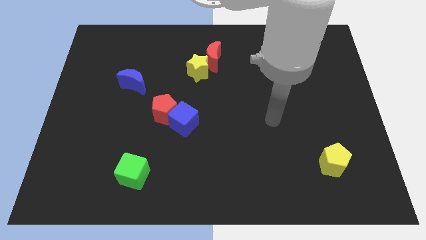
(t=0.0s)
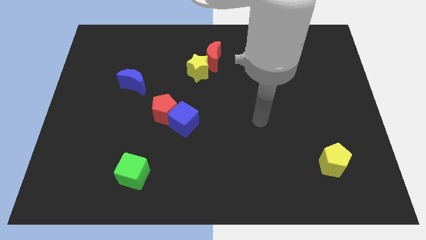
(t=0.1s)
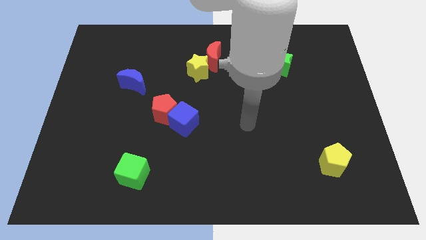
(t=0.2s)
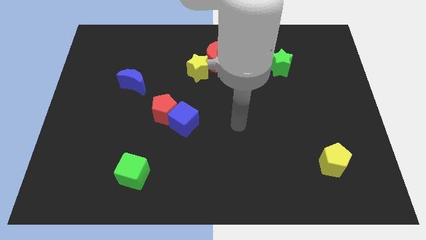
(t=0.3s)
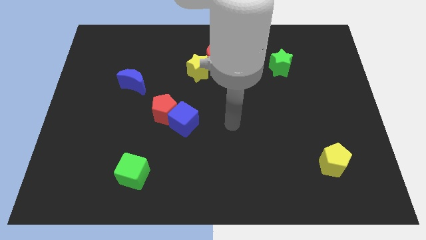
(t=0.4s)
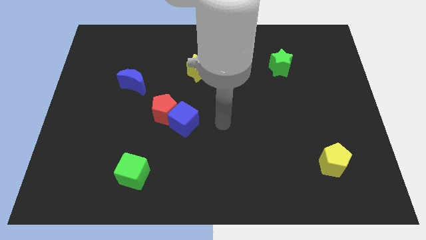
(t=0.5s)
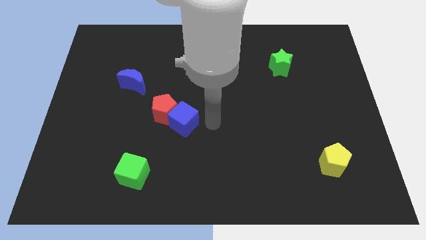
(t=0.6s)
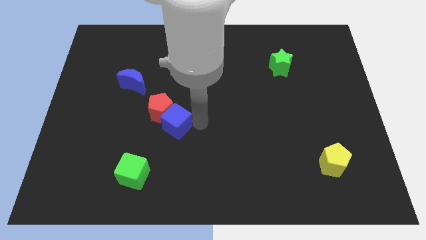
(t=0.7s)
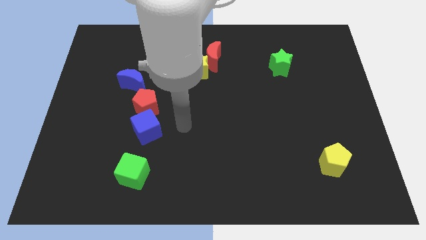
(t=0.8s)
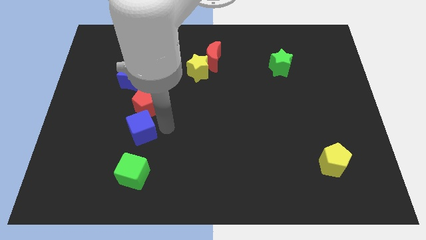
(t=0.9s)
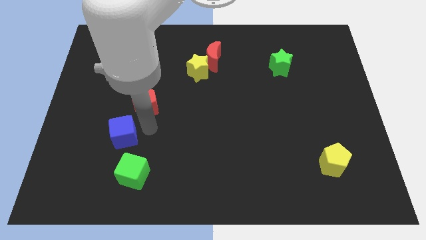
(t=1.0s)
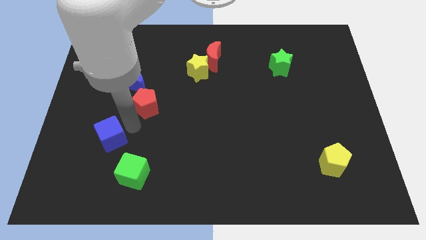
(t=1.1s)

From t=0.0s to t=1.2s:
move the red pentagon away from the blue cube

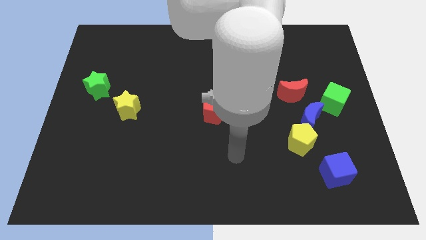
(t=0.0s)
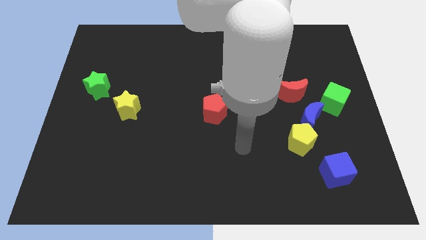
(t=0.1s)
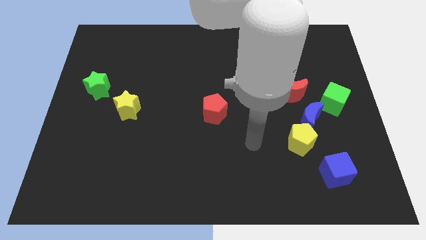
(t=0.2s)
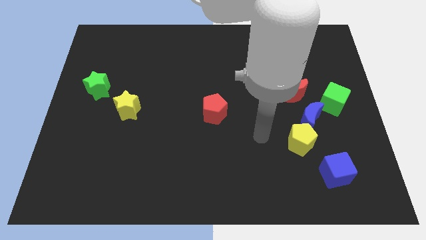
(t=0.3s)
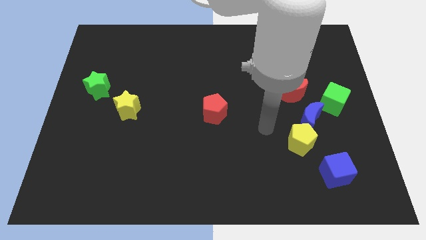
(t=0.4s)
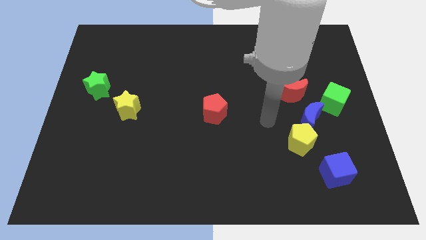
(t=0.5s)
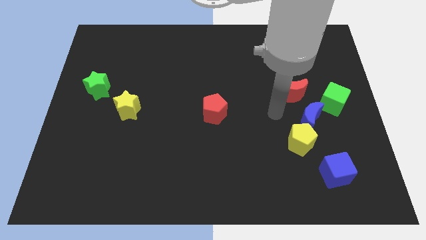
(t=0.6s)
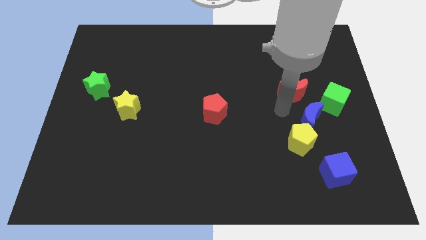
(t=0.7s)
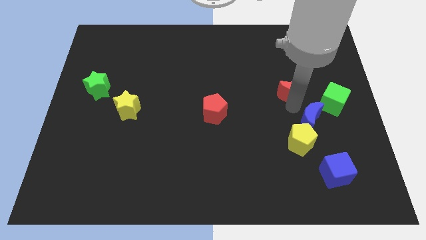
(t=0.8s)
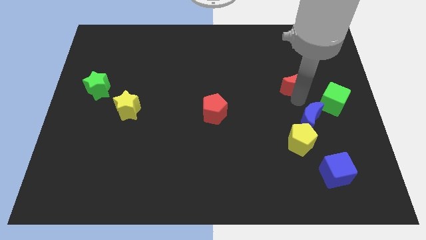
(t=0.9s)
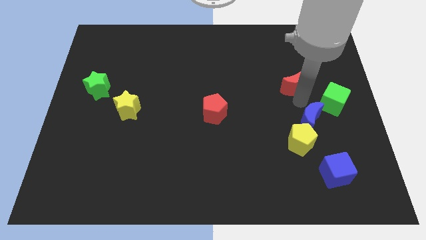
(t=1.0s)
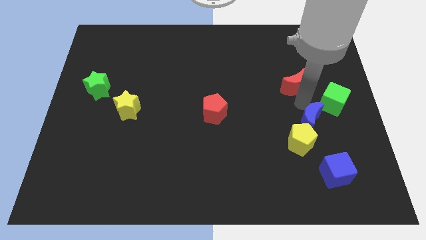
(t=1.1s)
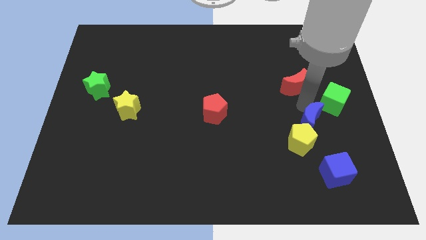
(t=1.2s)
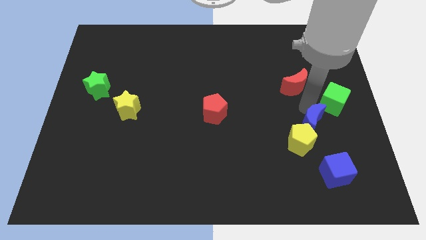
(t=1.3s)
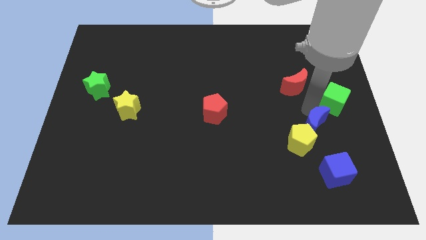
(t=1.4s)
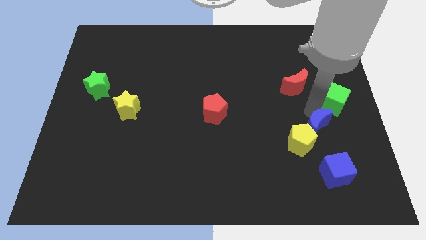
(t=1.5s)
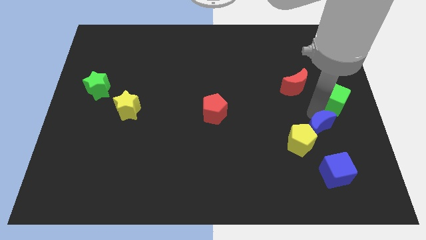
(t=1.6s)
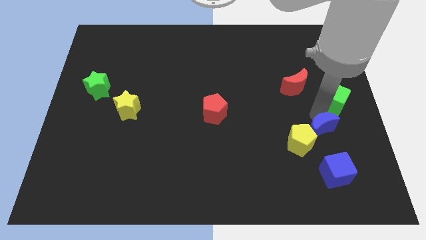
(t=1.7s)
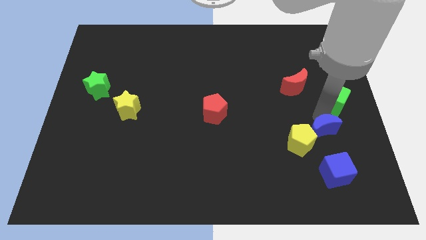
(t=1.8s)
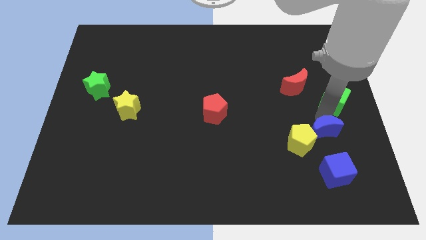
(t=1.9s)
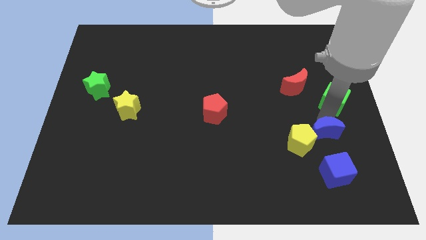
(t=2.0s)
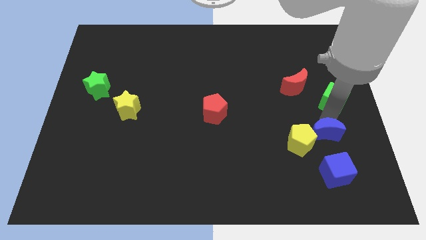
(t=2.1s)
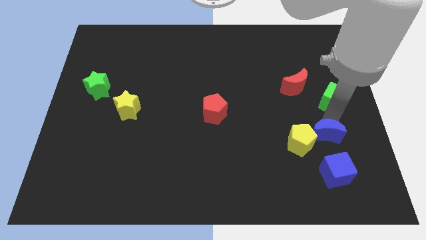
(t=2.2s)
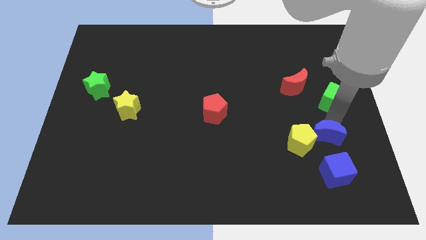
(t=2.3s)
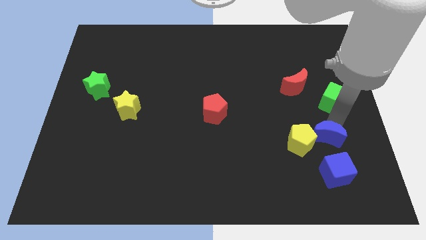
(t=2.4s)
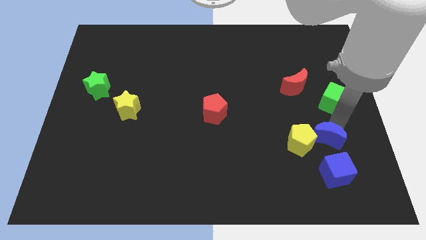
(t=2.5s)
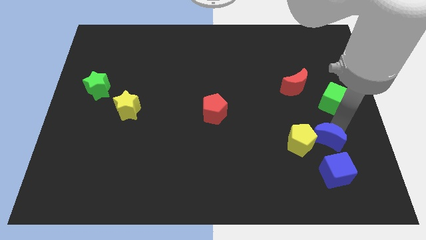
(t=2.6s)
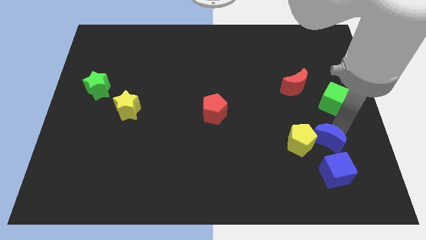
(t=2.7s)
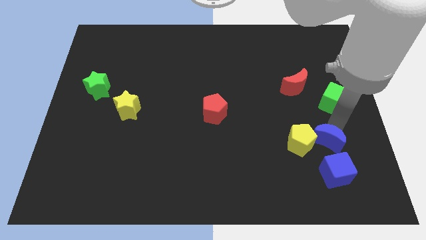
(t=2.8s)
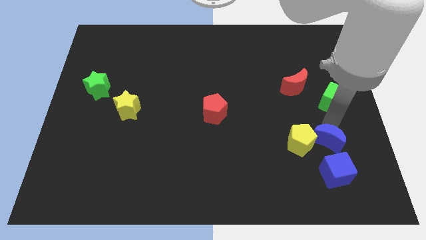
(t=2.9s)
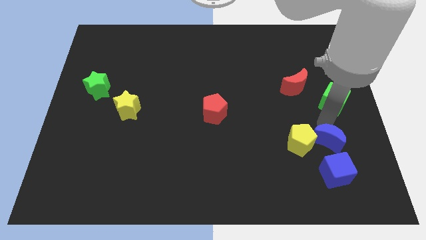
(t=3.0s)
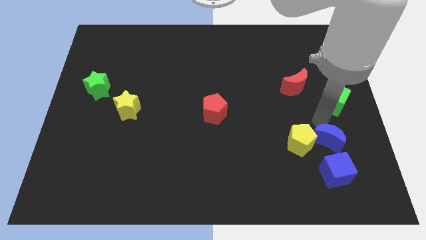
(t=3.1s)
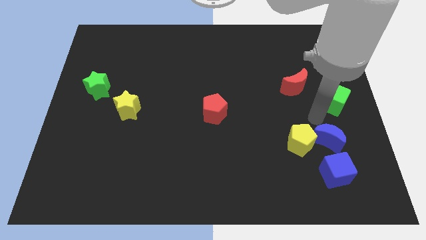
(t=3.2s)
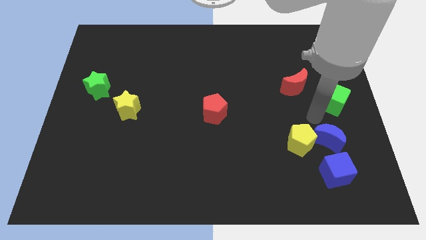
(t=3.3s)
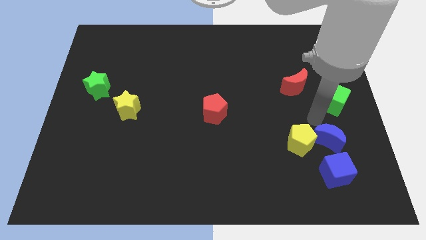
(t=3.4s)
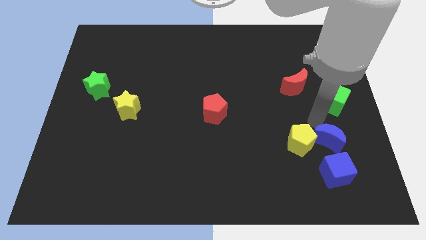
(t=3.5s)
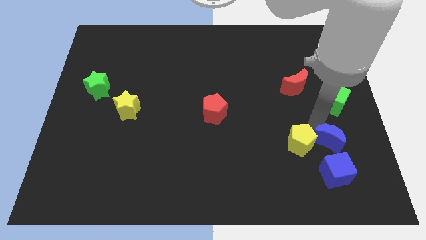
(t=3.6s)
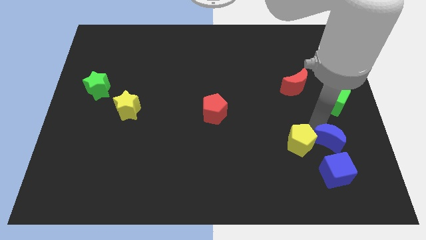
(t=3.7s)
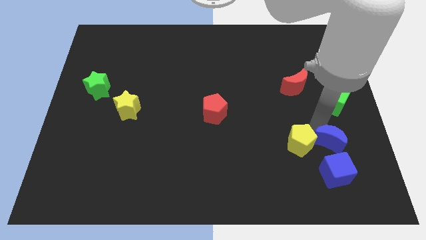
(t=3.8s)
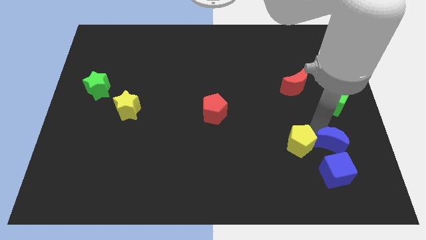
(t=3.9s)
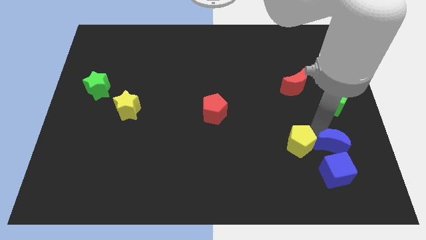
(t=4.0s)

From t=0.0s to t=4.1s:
move the blue moon away from the clump

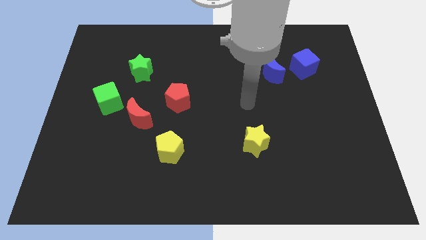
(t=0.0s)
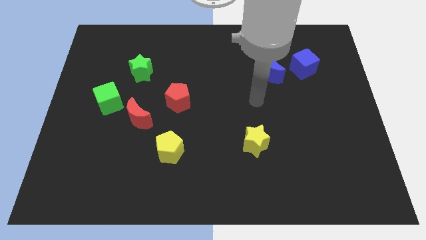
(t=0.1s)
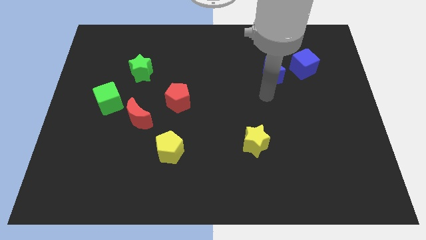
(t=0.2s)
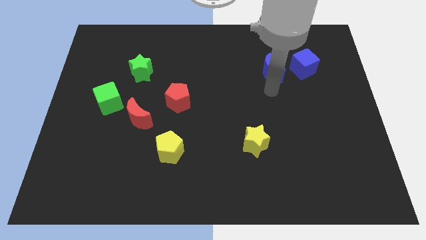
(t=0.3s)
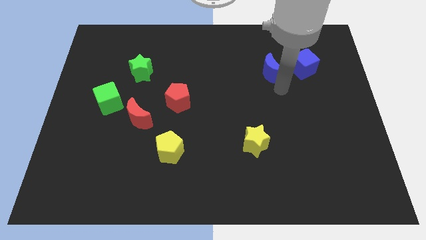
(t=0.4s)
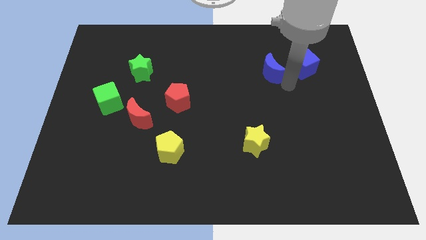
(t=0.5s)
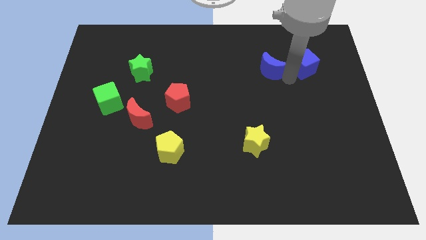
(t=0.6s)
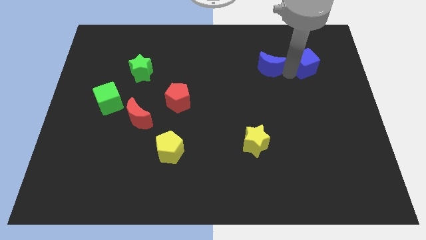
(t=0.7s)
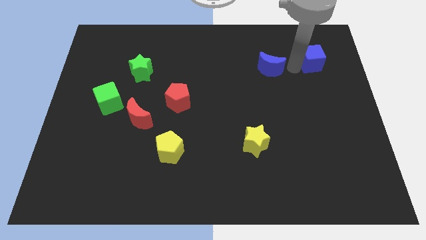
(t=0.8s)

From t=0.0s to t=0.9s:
pull the blue moon apart from the blue cube

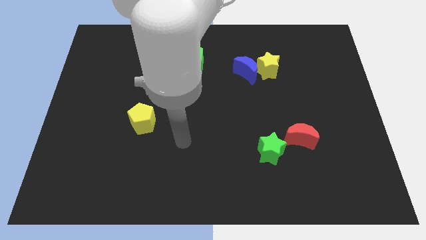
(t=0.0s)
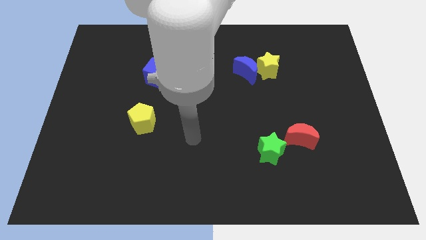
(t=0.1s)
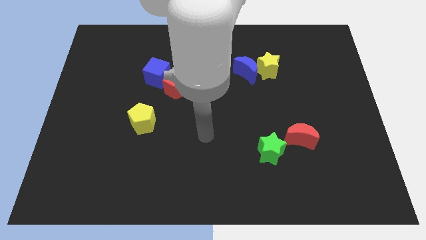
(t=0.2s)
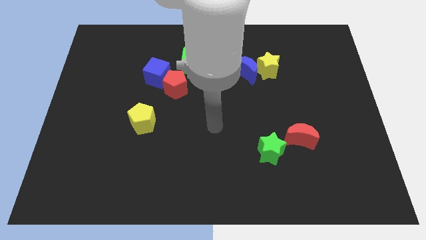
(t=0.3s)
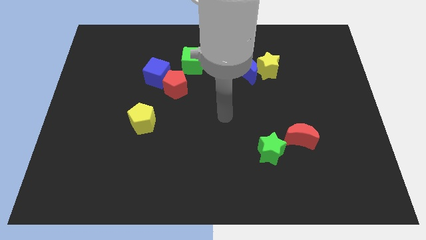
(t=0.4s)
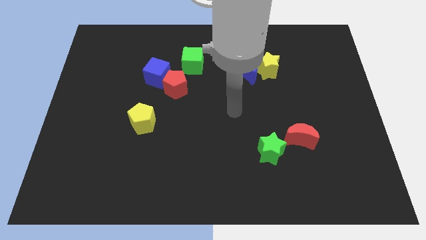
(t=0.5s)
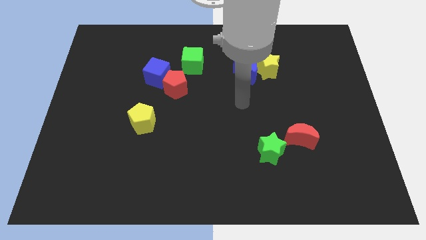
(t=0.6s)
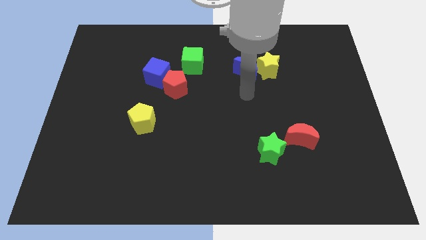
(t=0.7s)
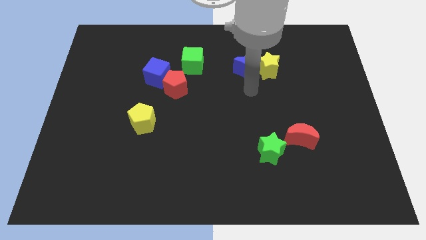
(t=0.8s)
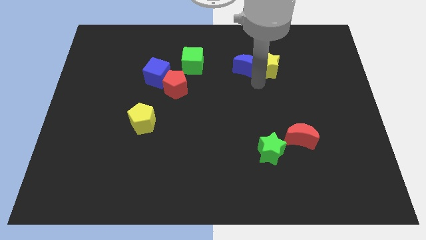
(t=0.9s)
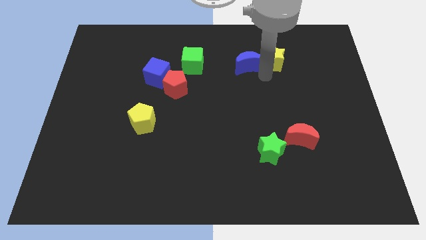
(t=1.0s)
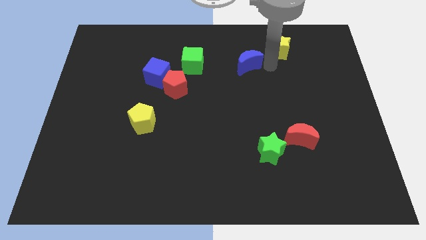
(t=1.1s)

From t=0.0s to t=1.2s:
move the blue moon away from the yellow star

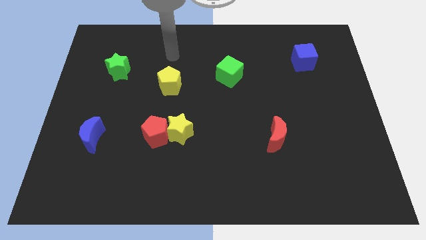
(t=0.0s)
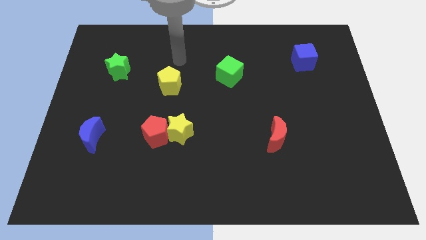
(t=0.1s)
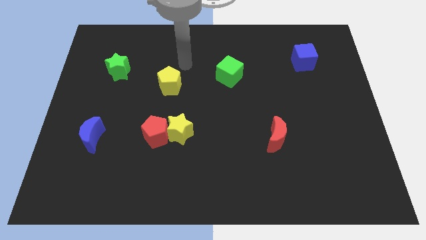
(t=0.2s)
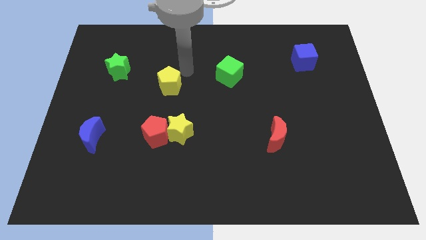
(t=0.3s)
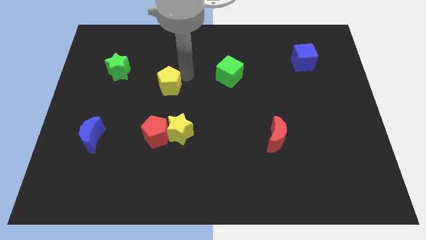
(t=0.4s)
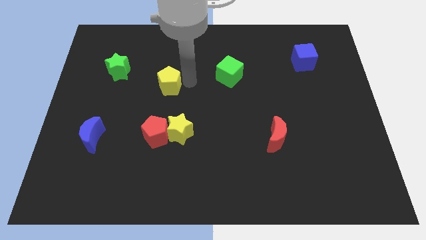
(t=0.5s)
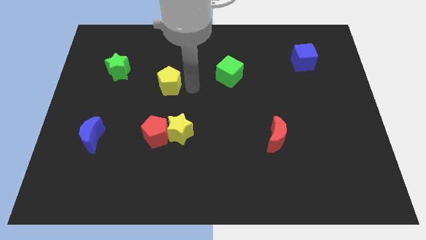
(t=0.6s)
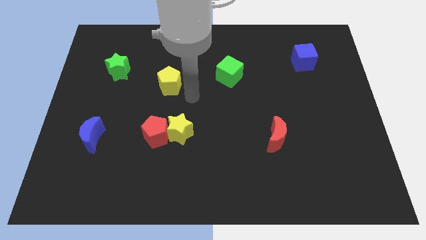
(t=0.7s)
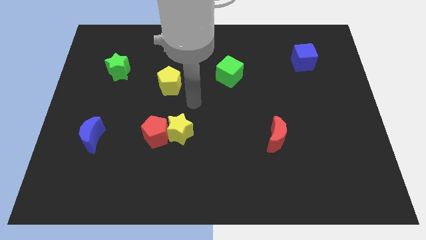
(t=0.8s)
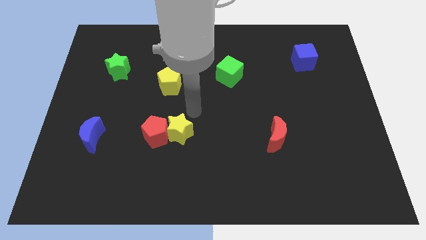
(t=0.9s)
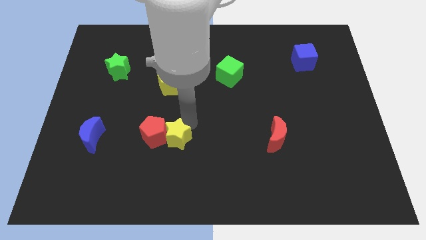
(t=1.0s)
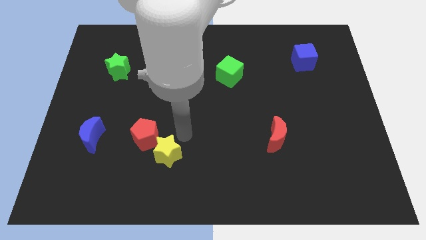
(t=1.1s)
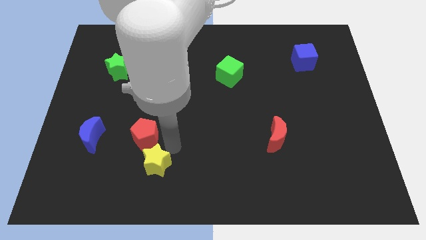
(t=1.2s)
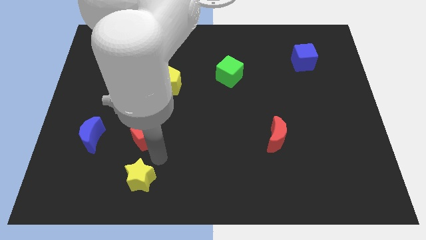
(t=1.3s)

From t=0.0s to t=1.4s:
separate the red pentagon from the yellow star

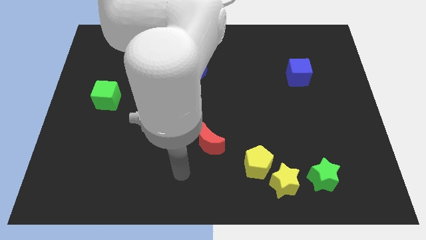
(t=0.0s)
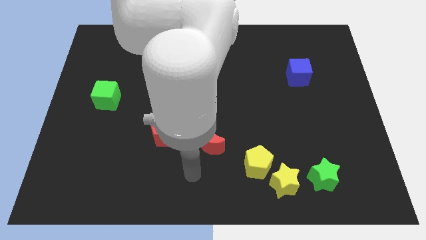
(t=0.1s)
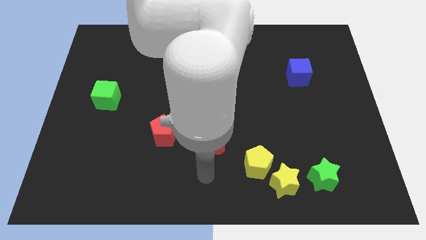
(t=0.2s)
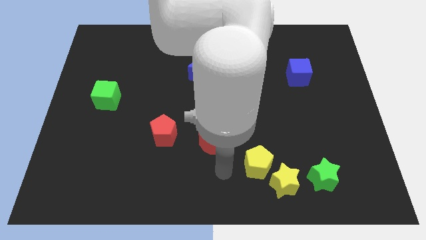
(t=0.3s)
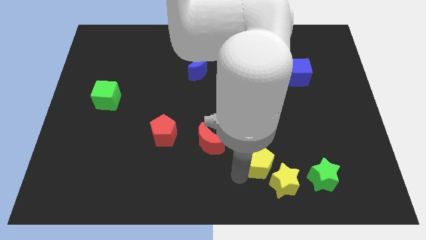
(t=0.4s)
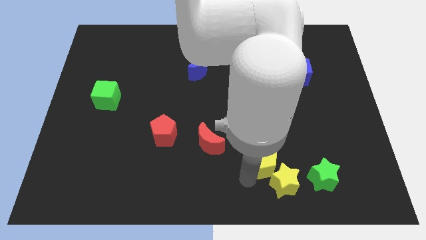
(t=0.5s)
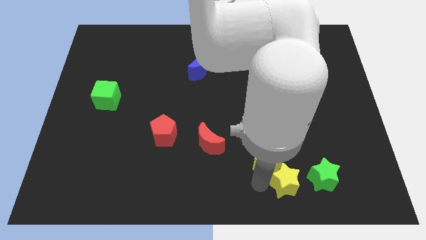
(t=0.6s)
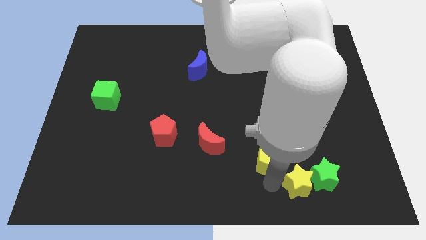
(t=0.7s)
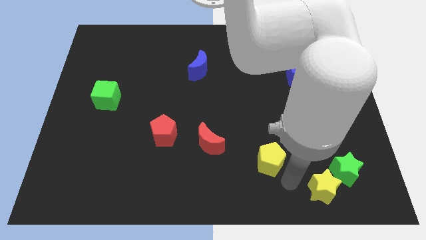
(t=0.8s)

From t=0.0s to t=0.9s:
pull the yellow pentagon apart from the yellow star
